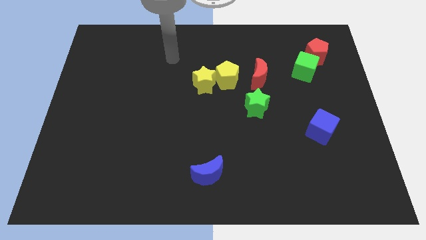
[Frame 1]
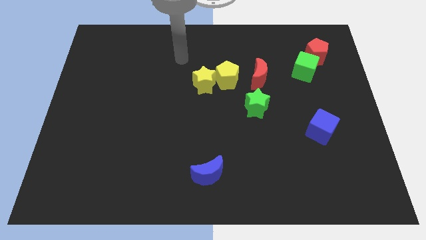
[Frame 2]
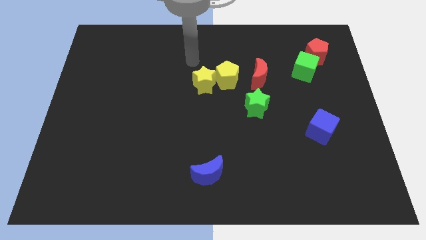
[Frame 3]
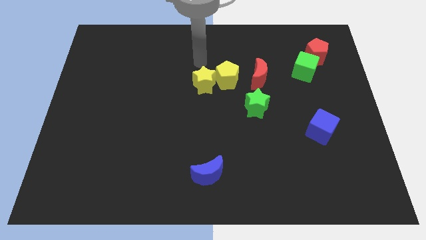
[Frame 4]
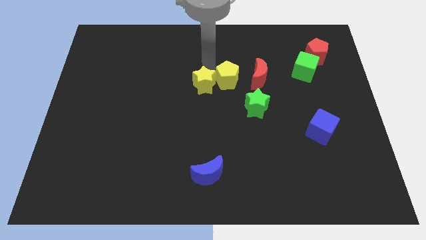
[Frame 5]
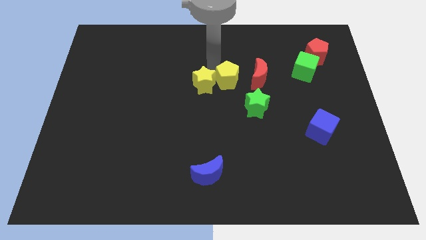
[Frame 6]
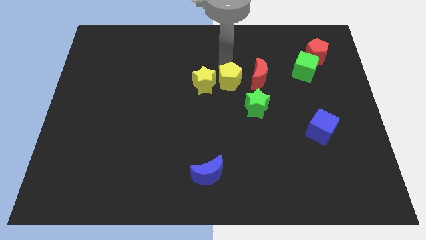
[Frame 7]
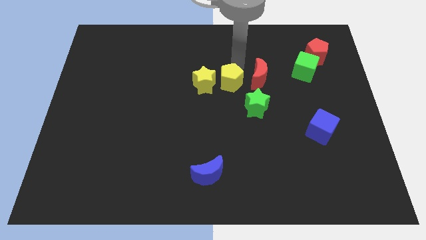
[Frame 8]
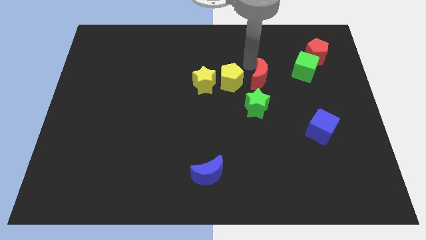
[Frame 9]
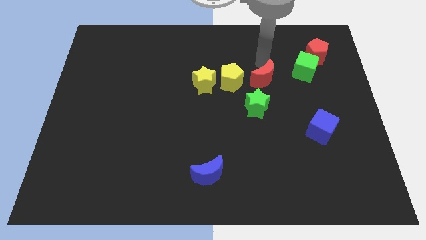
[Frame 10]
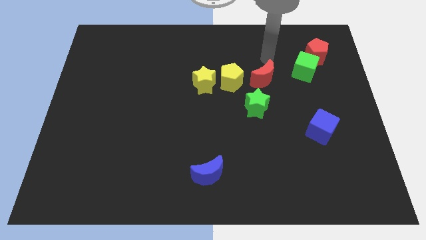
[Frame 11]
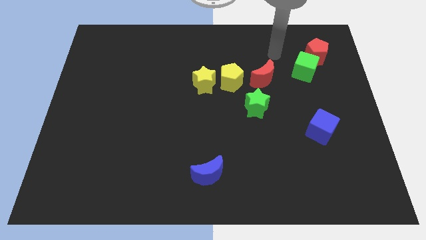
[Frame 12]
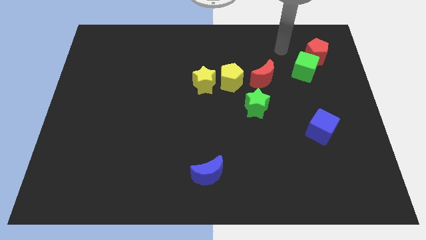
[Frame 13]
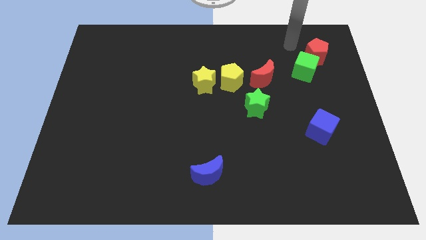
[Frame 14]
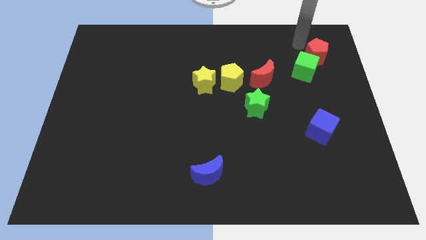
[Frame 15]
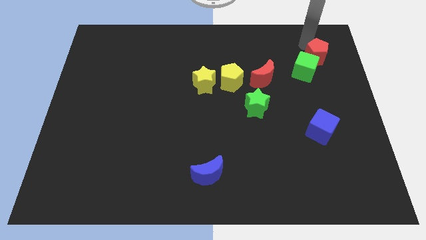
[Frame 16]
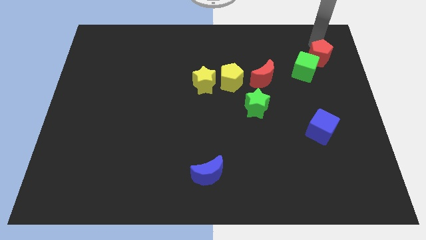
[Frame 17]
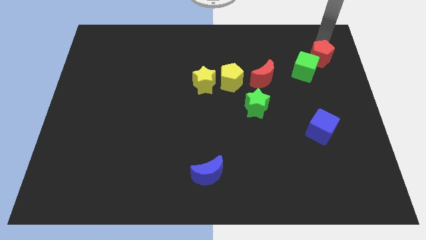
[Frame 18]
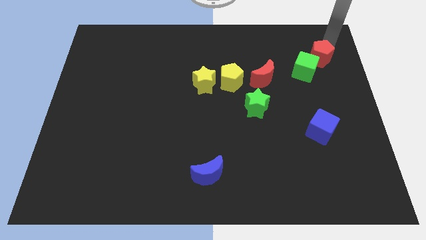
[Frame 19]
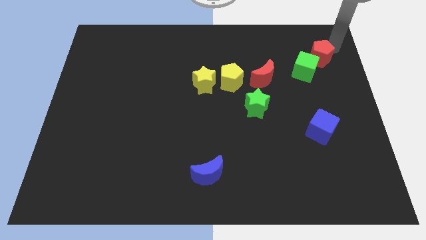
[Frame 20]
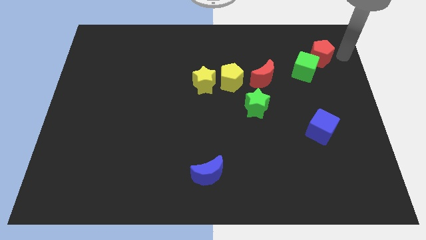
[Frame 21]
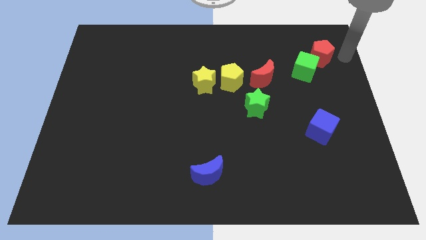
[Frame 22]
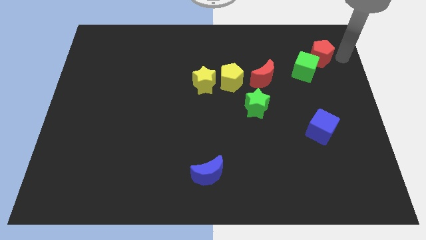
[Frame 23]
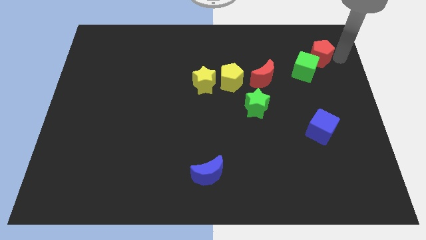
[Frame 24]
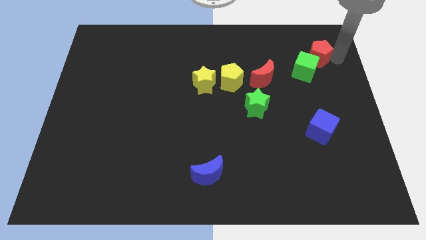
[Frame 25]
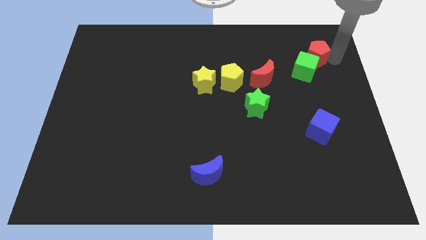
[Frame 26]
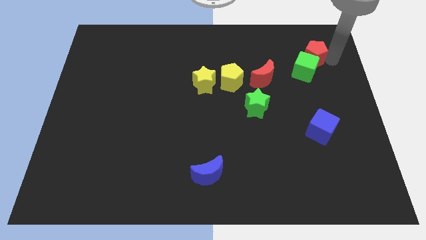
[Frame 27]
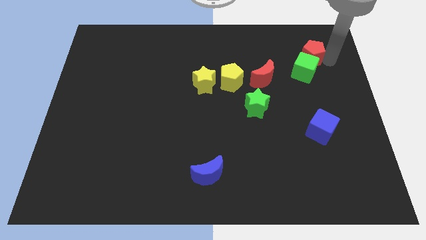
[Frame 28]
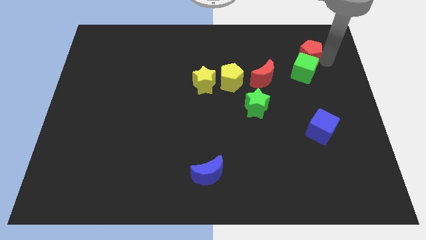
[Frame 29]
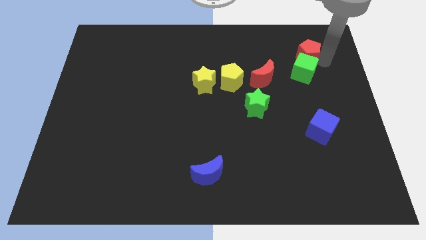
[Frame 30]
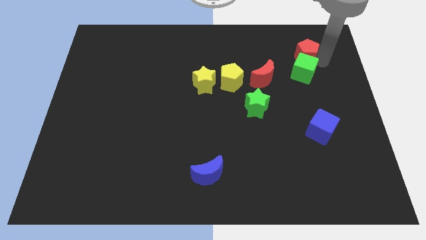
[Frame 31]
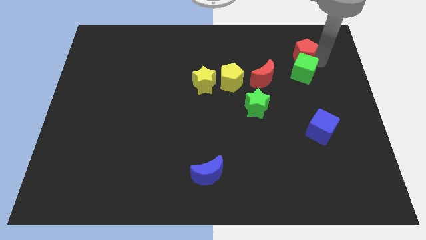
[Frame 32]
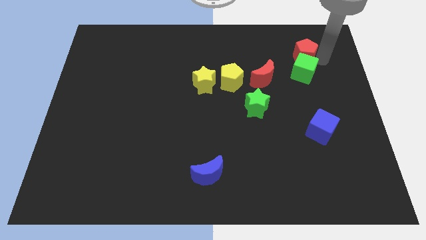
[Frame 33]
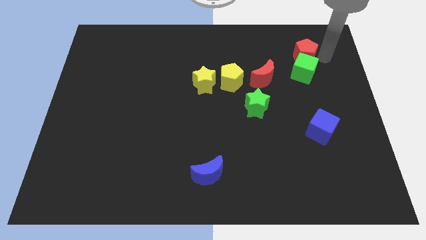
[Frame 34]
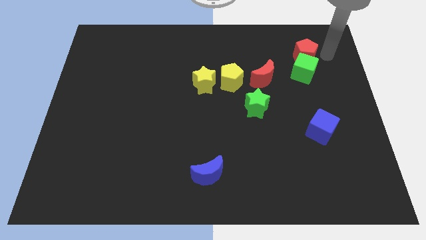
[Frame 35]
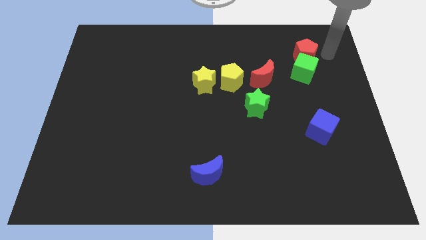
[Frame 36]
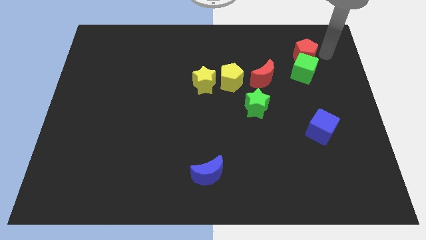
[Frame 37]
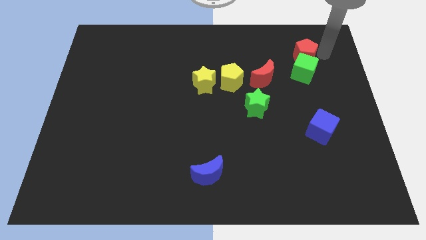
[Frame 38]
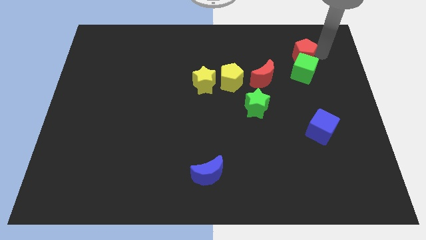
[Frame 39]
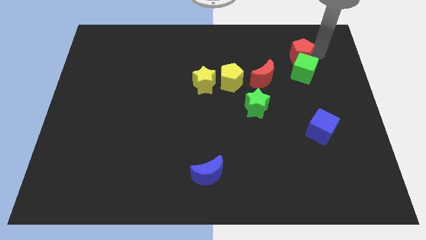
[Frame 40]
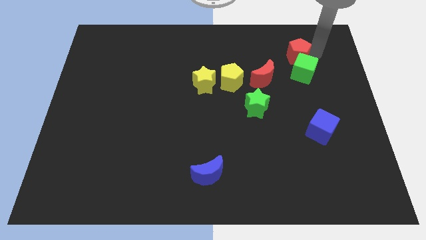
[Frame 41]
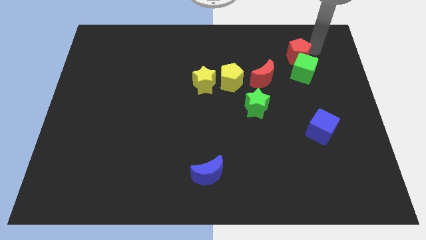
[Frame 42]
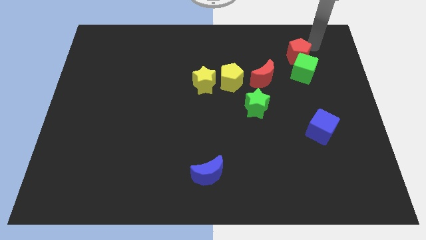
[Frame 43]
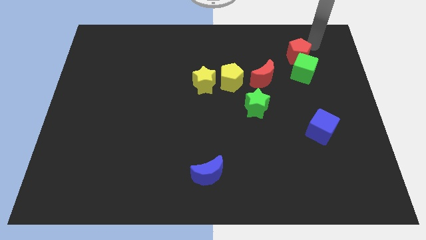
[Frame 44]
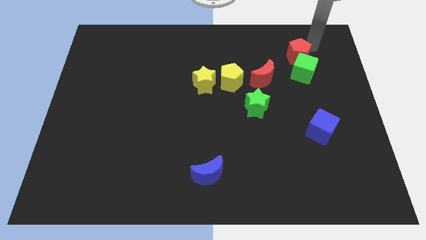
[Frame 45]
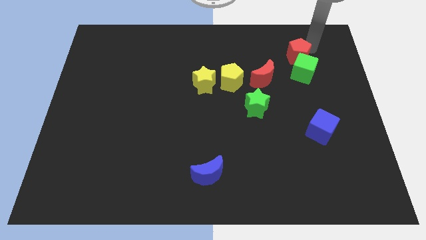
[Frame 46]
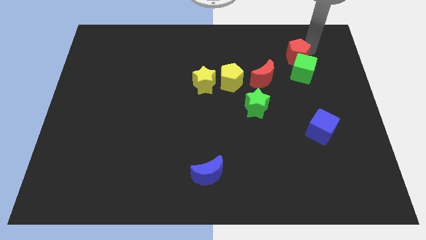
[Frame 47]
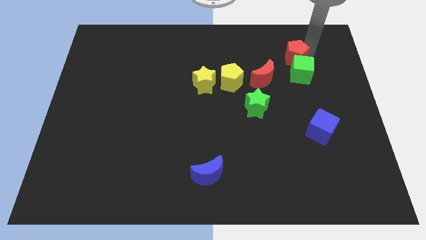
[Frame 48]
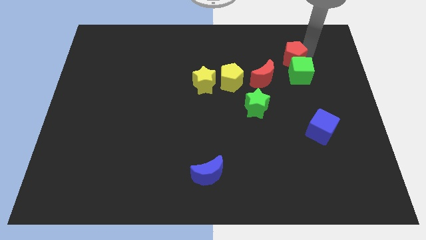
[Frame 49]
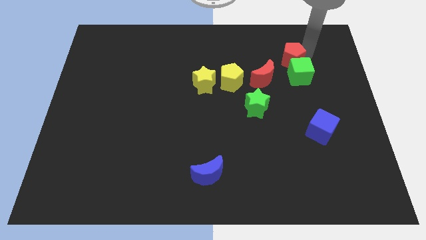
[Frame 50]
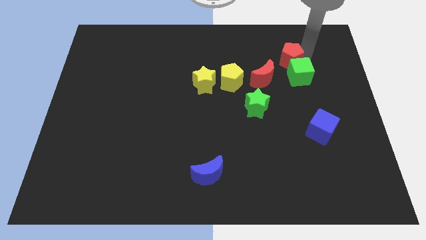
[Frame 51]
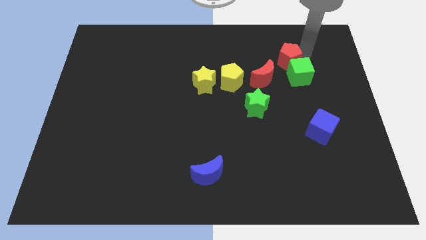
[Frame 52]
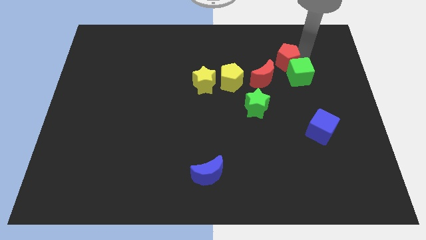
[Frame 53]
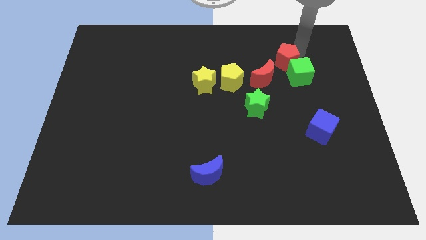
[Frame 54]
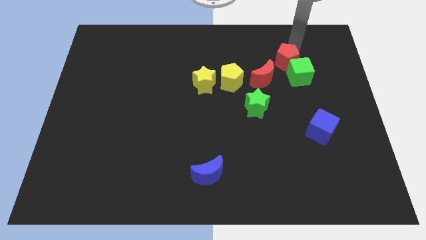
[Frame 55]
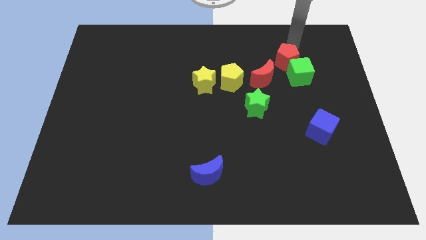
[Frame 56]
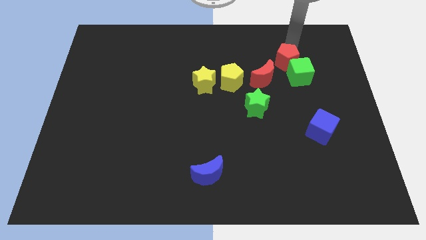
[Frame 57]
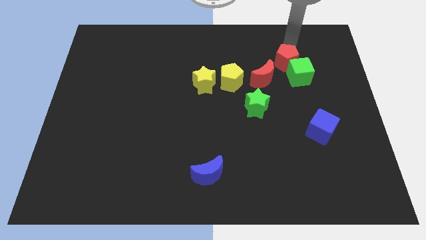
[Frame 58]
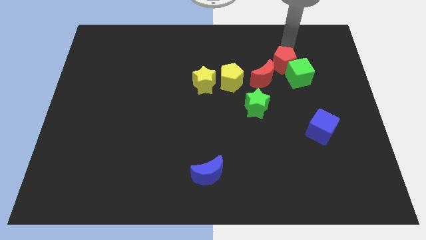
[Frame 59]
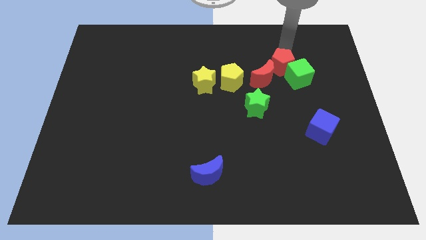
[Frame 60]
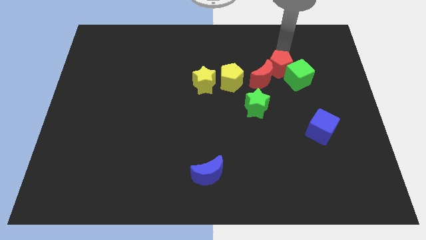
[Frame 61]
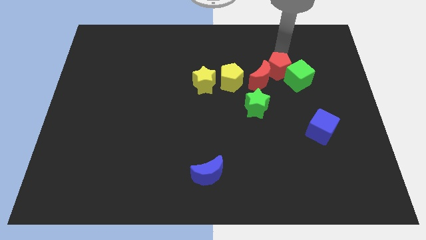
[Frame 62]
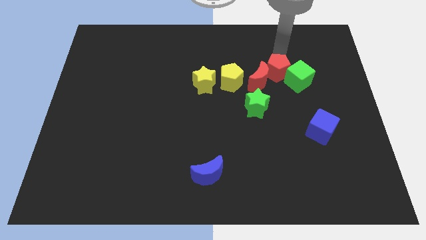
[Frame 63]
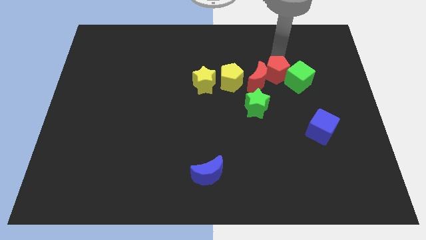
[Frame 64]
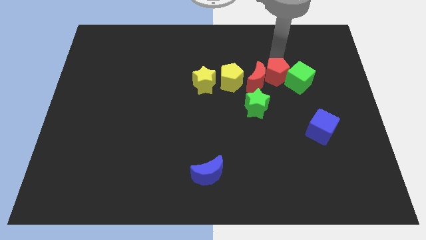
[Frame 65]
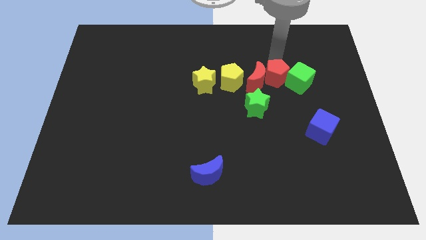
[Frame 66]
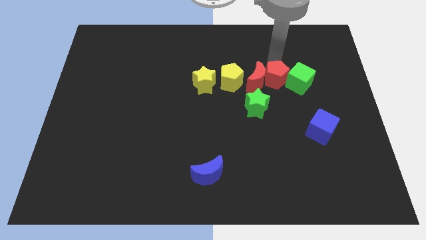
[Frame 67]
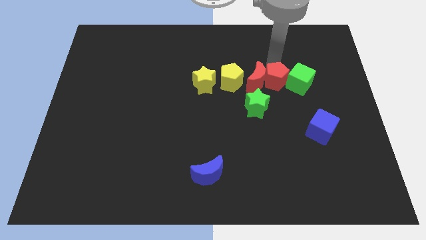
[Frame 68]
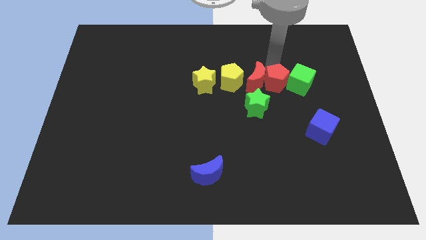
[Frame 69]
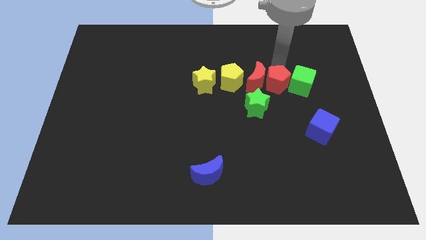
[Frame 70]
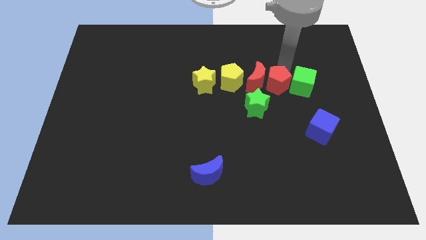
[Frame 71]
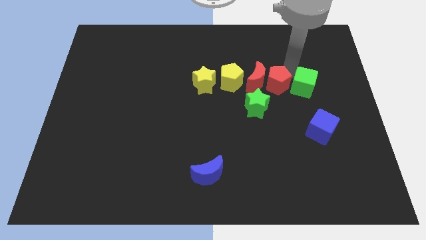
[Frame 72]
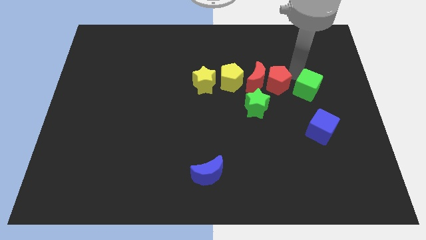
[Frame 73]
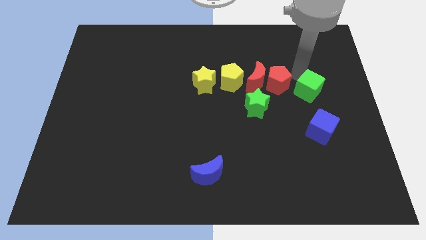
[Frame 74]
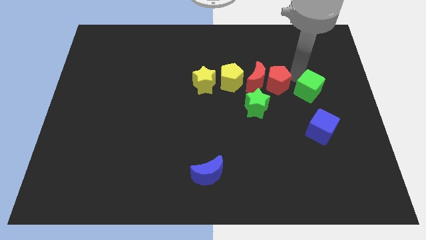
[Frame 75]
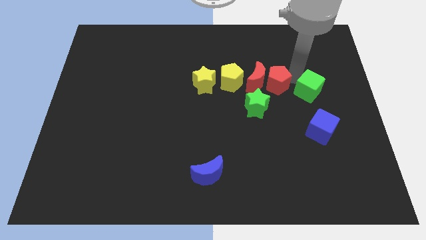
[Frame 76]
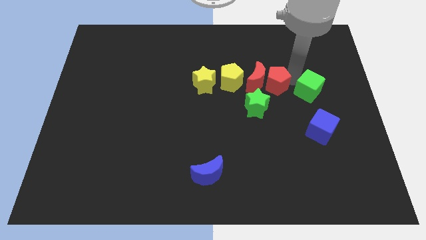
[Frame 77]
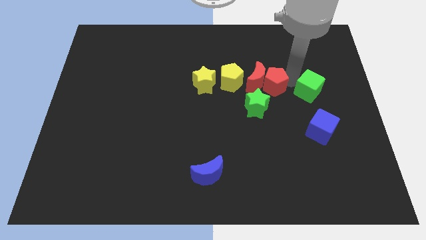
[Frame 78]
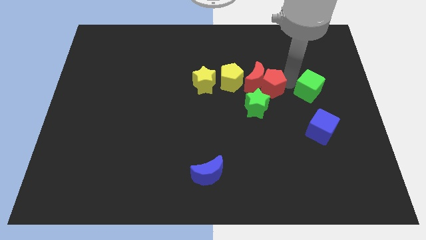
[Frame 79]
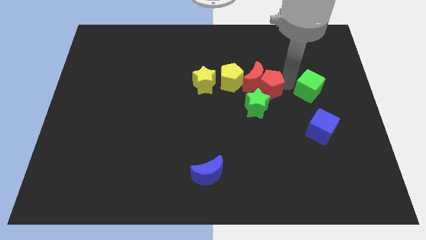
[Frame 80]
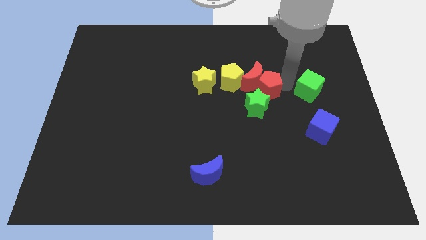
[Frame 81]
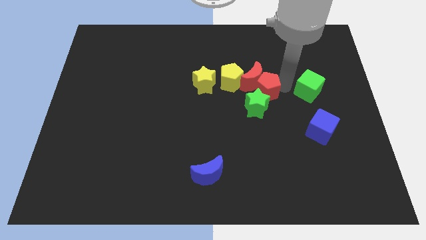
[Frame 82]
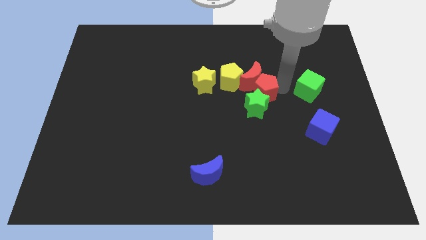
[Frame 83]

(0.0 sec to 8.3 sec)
push the red pentagon to the middle
